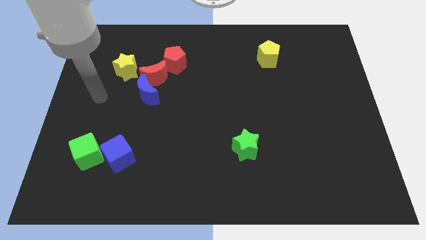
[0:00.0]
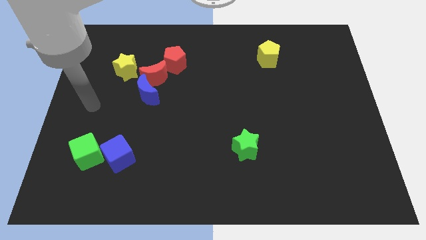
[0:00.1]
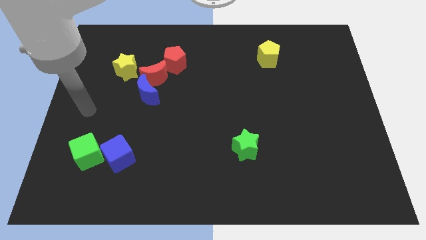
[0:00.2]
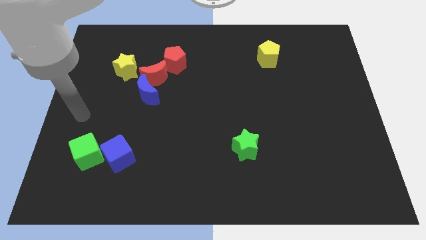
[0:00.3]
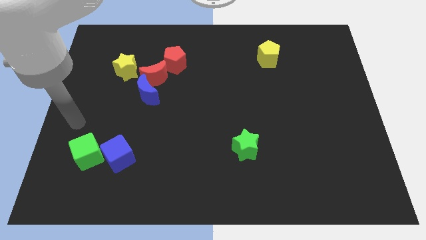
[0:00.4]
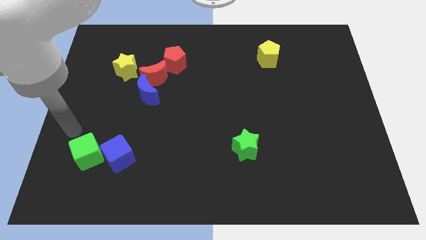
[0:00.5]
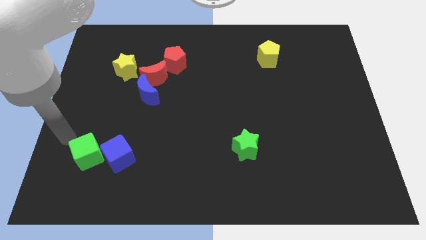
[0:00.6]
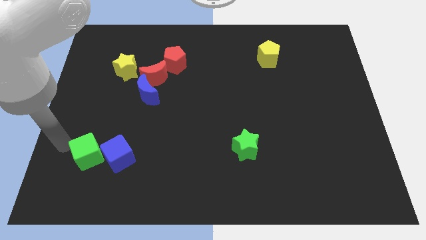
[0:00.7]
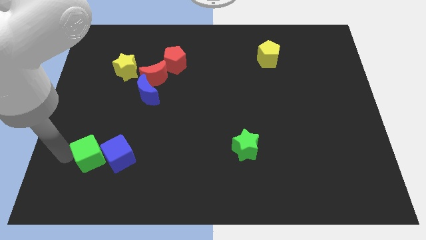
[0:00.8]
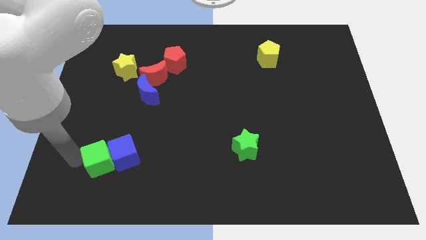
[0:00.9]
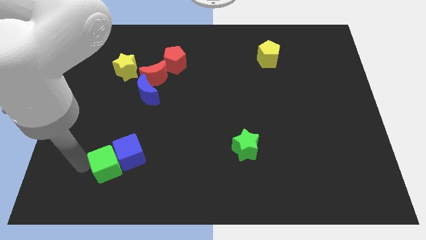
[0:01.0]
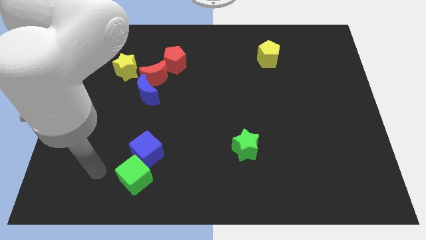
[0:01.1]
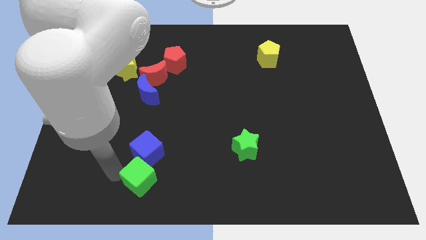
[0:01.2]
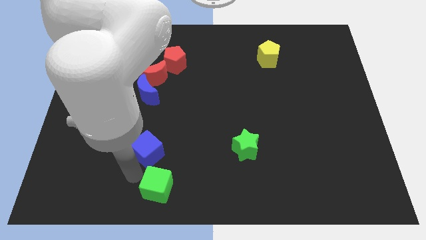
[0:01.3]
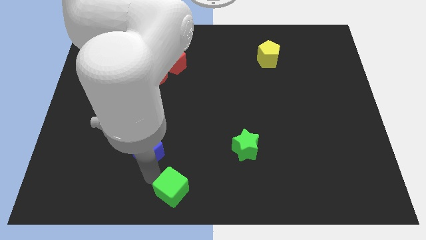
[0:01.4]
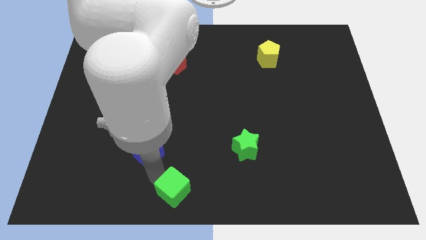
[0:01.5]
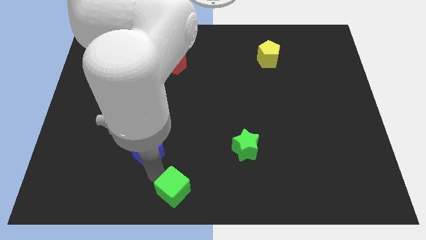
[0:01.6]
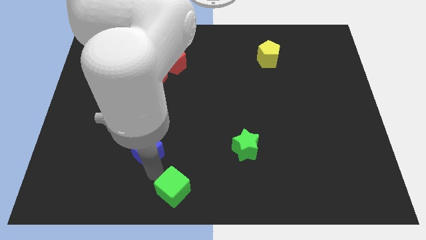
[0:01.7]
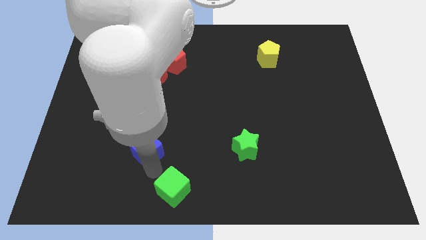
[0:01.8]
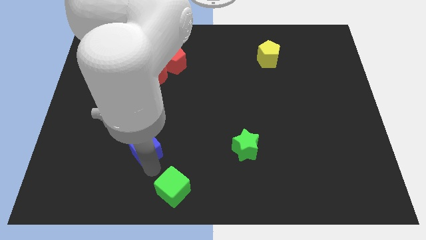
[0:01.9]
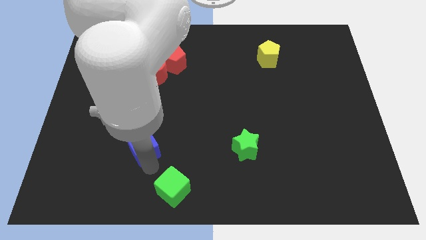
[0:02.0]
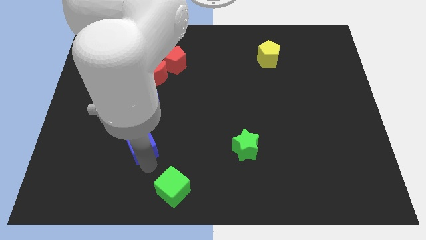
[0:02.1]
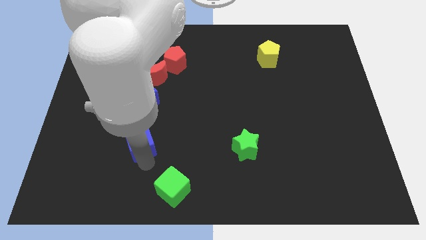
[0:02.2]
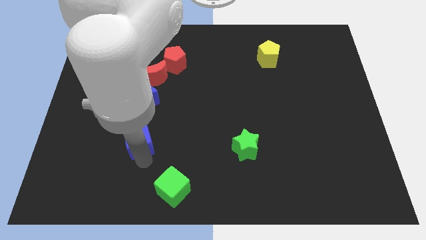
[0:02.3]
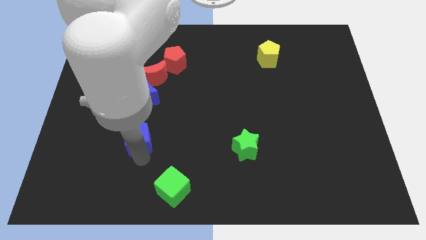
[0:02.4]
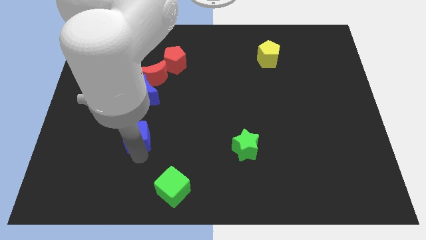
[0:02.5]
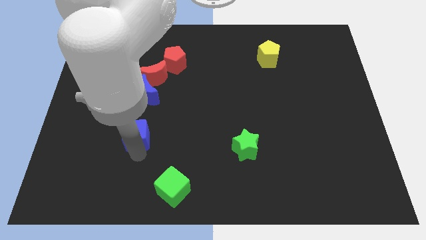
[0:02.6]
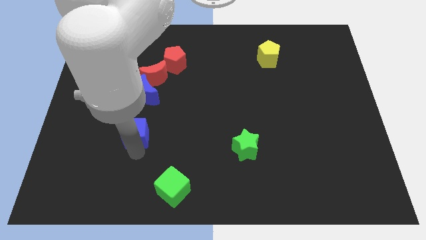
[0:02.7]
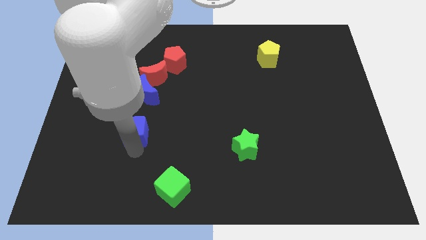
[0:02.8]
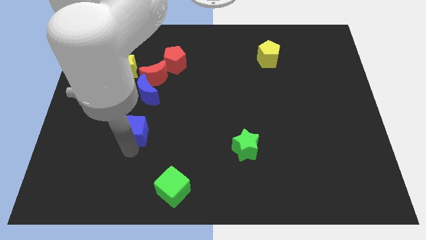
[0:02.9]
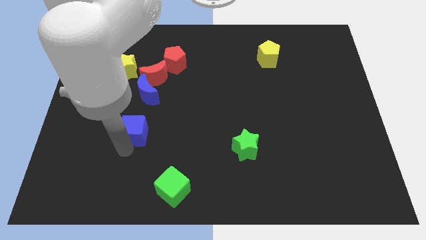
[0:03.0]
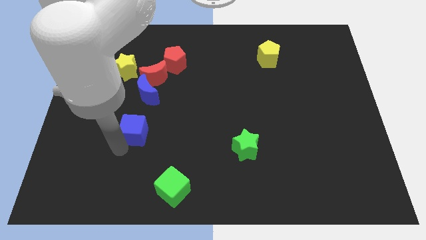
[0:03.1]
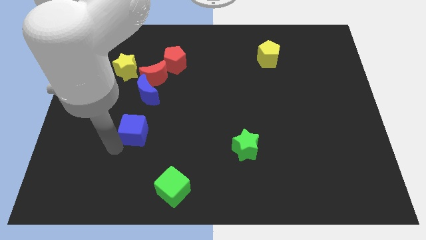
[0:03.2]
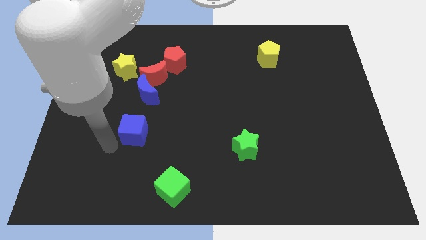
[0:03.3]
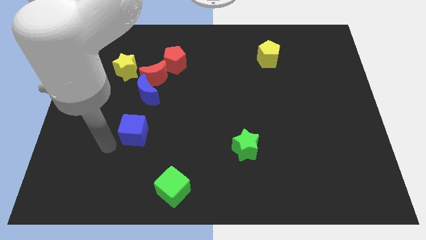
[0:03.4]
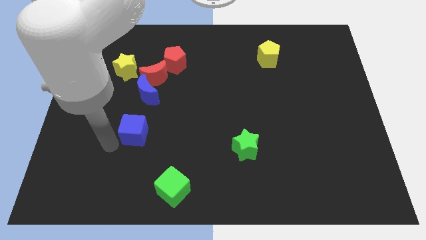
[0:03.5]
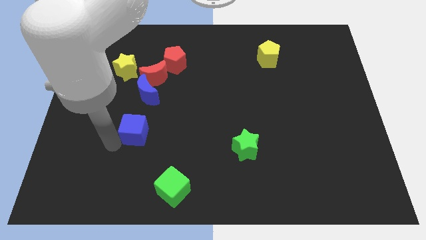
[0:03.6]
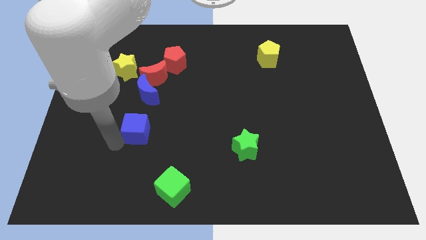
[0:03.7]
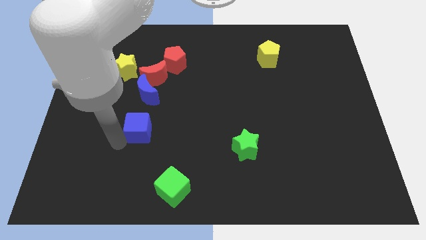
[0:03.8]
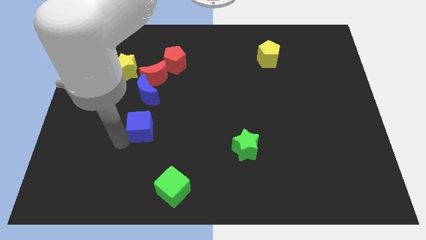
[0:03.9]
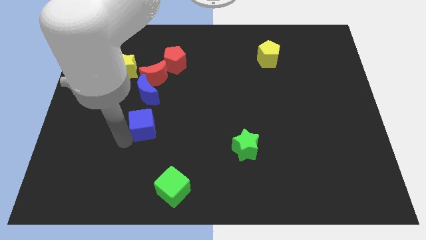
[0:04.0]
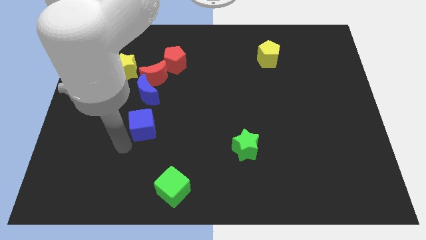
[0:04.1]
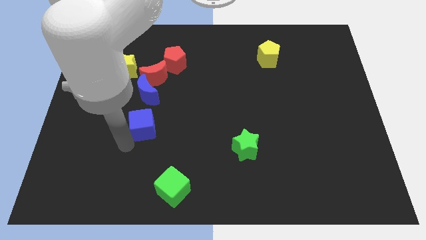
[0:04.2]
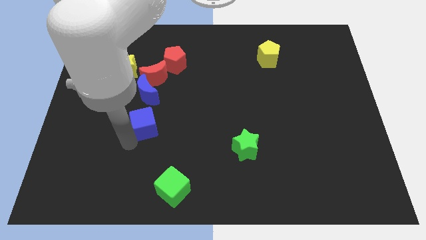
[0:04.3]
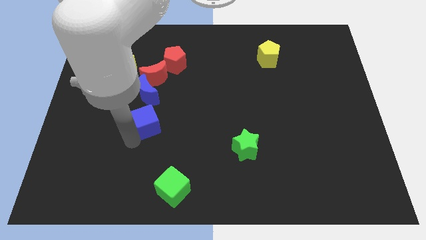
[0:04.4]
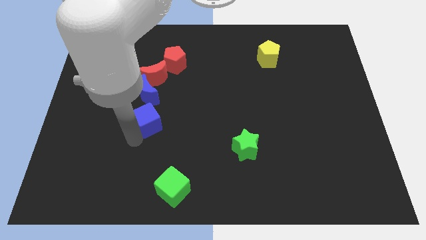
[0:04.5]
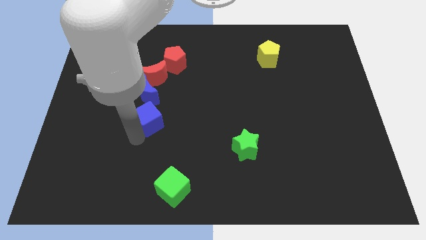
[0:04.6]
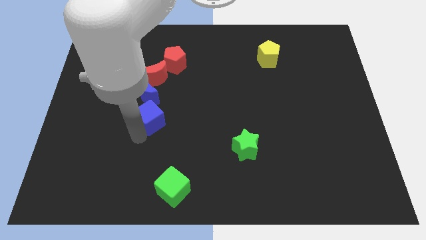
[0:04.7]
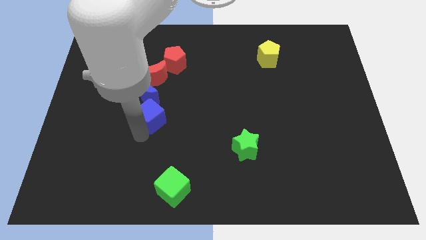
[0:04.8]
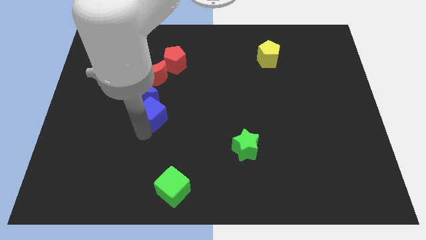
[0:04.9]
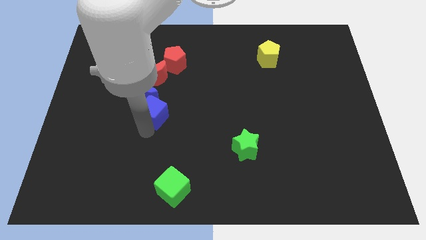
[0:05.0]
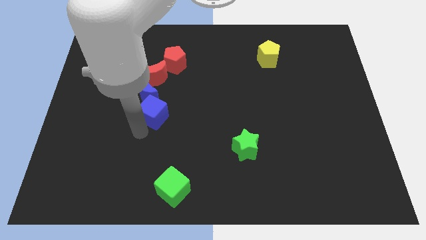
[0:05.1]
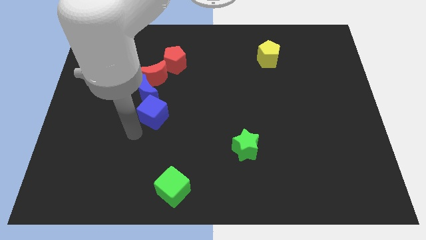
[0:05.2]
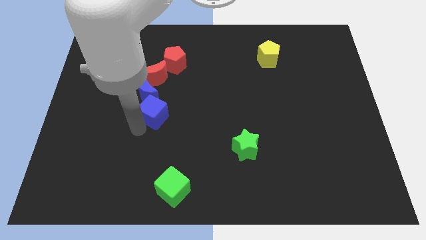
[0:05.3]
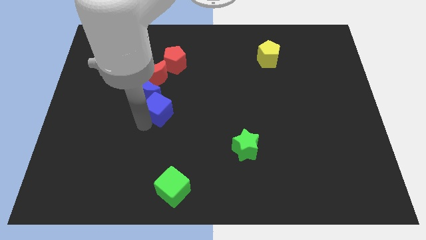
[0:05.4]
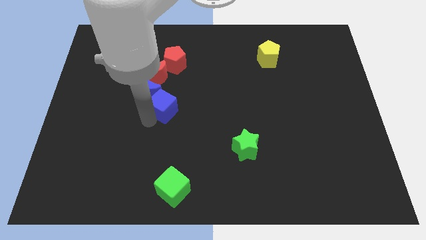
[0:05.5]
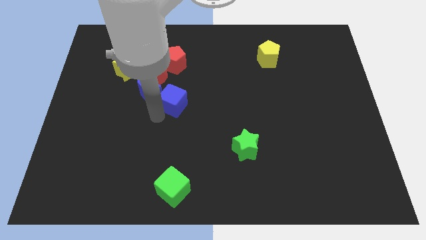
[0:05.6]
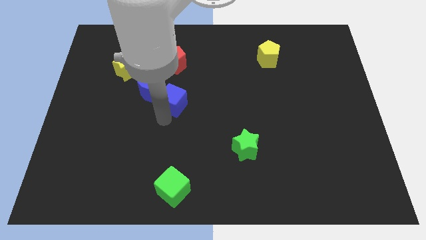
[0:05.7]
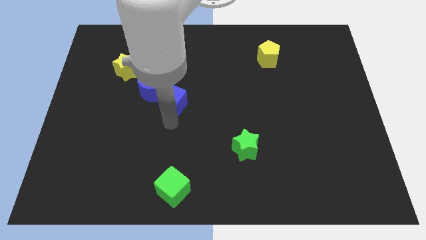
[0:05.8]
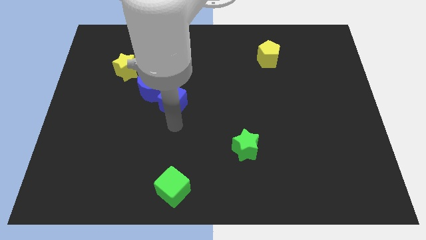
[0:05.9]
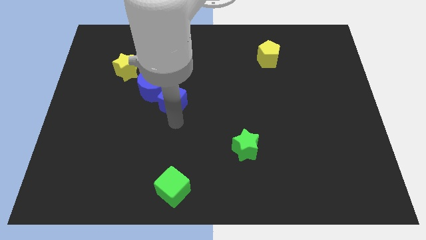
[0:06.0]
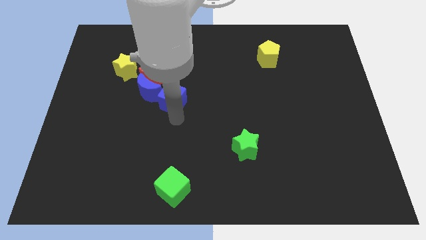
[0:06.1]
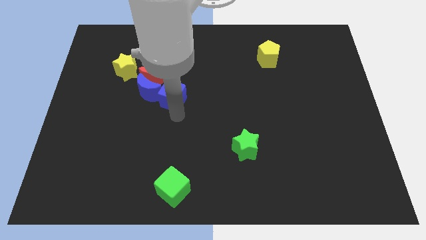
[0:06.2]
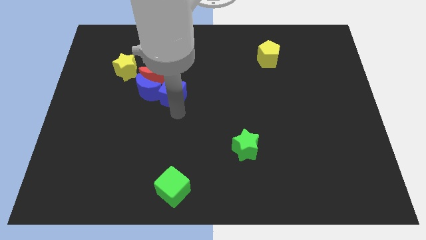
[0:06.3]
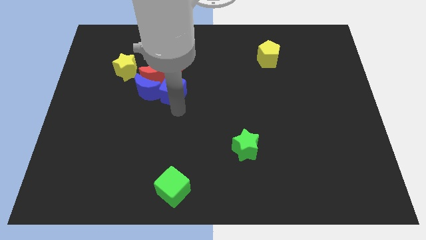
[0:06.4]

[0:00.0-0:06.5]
push the blue cube to the top right of the blue moon

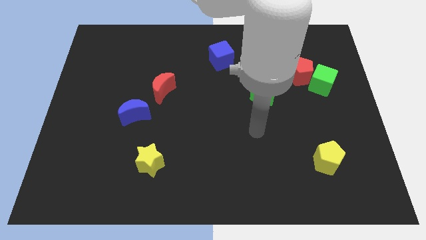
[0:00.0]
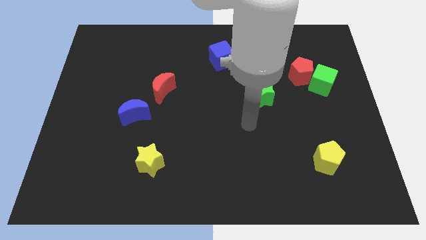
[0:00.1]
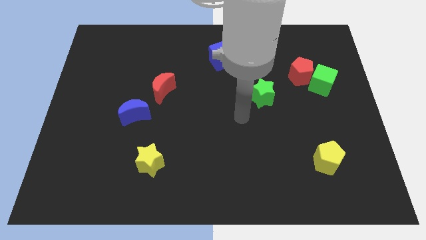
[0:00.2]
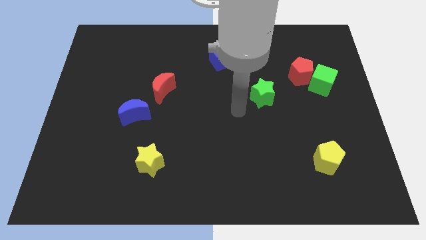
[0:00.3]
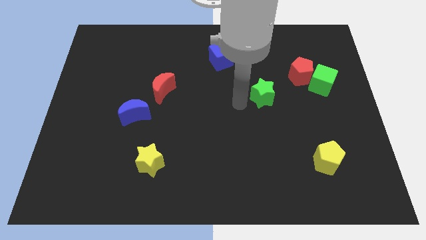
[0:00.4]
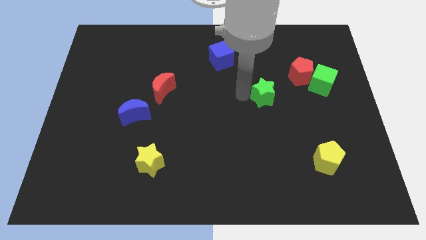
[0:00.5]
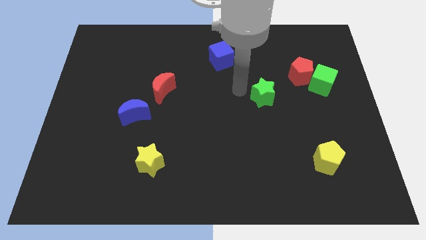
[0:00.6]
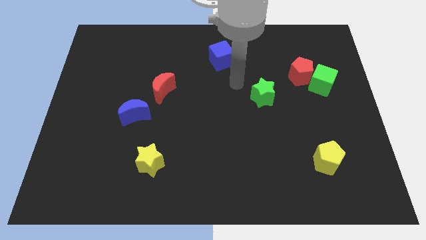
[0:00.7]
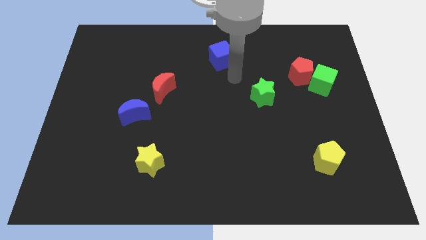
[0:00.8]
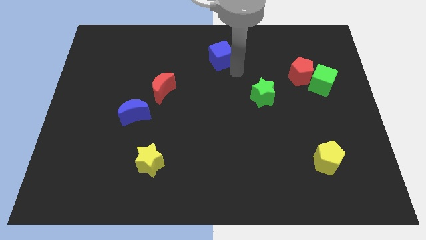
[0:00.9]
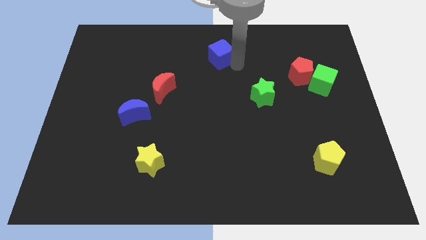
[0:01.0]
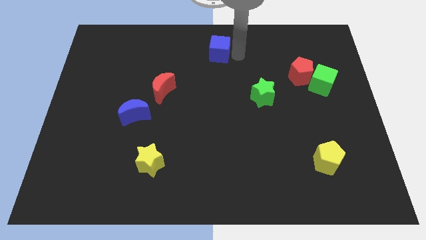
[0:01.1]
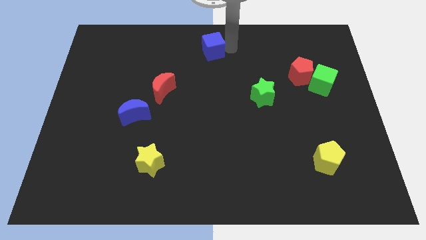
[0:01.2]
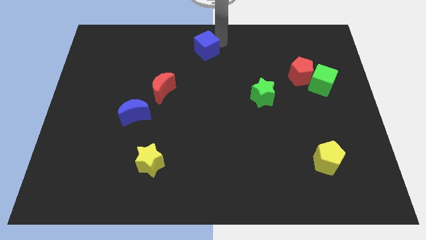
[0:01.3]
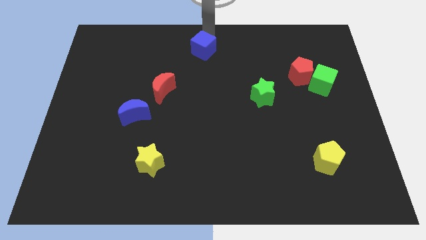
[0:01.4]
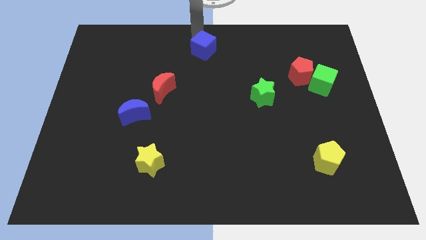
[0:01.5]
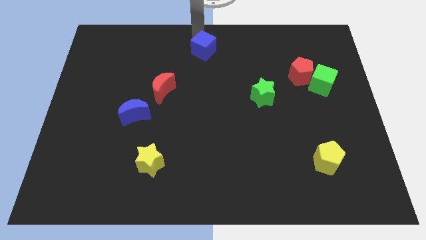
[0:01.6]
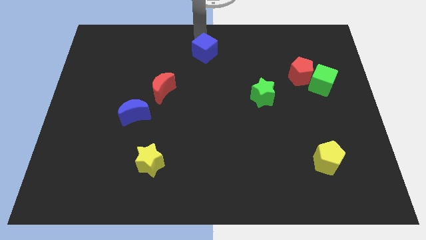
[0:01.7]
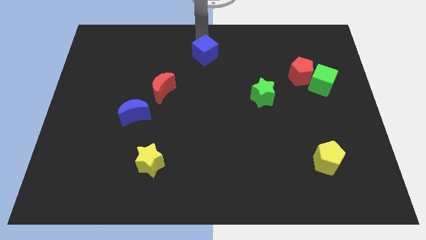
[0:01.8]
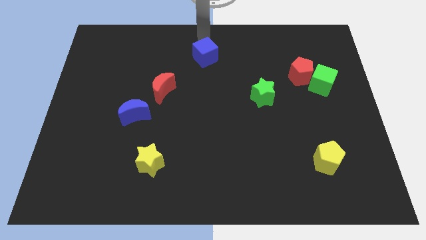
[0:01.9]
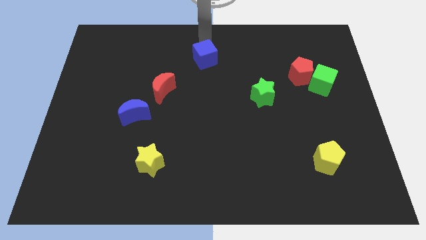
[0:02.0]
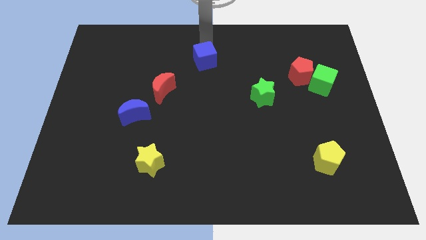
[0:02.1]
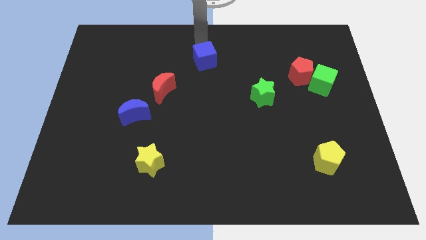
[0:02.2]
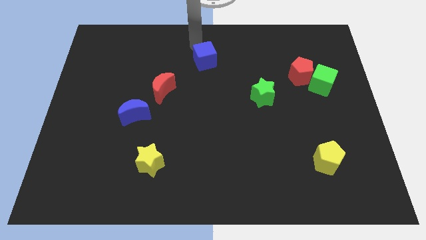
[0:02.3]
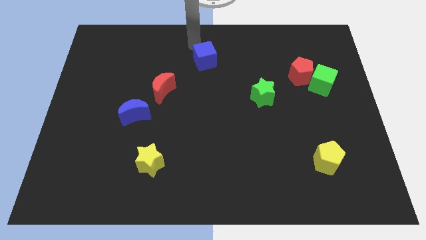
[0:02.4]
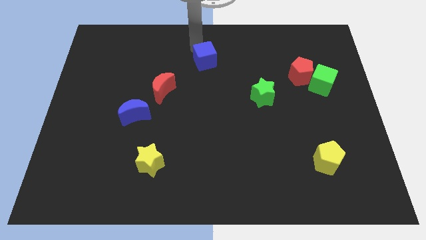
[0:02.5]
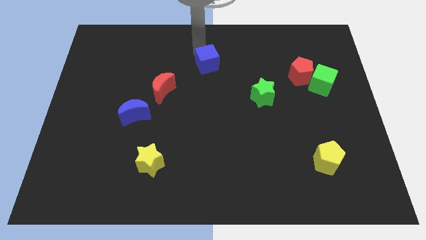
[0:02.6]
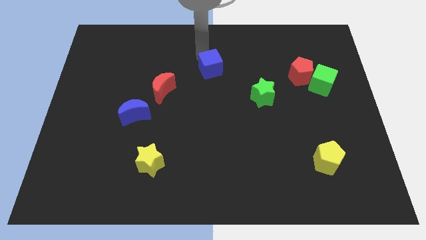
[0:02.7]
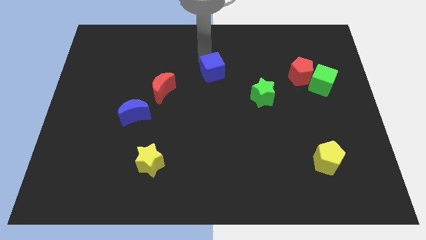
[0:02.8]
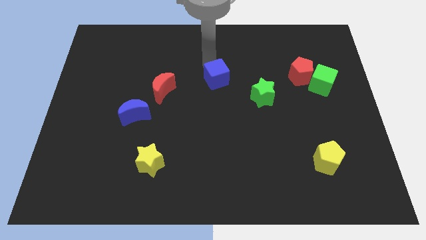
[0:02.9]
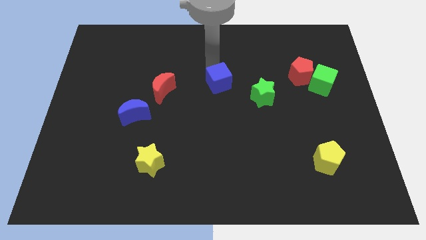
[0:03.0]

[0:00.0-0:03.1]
slide the blue cube to the left side of the green star
